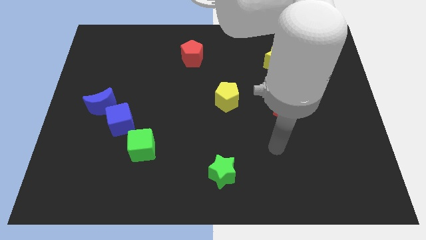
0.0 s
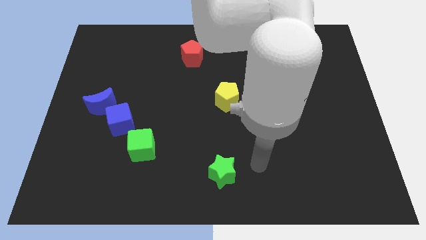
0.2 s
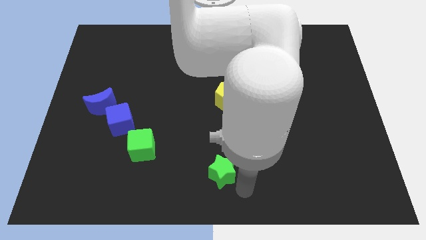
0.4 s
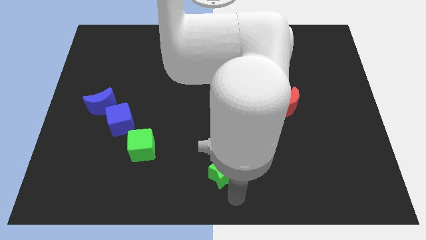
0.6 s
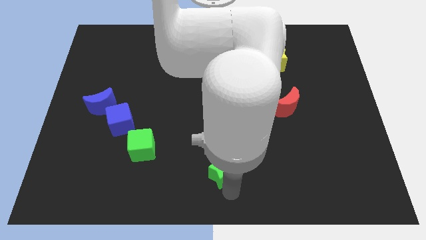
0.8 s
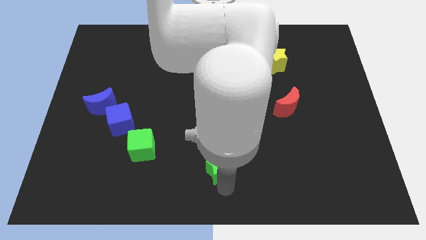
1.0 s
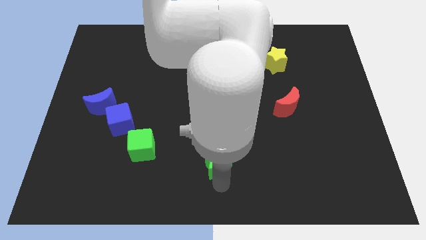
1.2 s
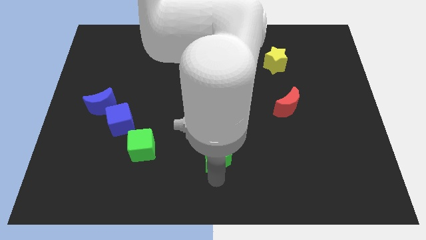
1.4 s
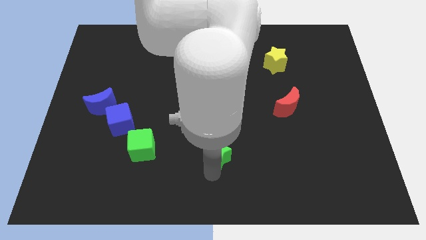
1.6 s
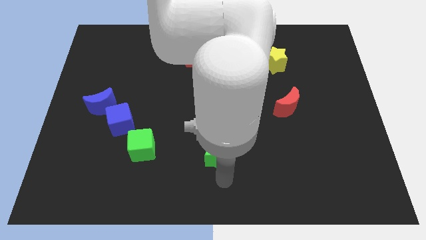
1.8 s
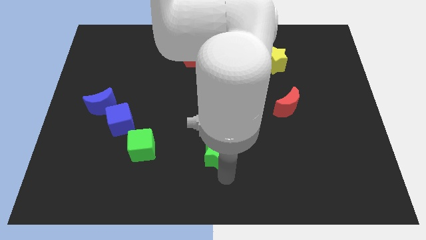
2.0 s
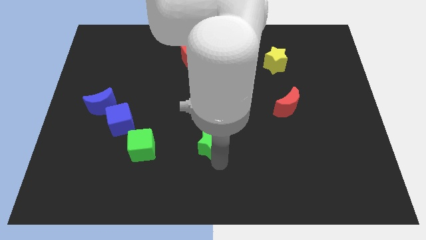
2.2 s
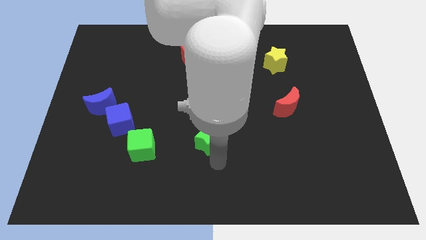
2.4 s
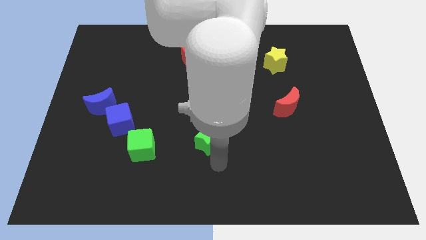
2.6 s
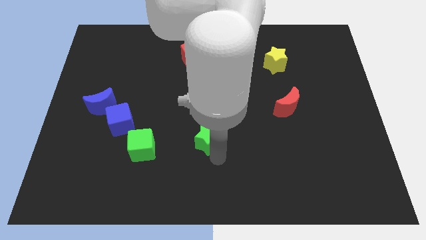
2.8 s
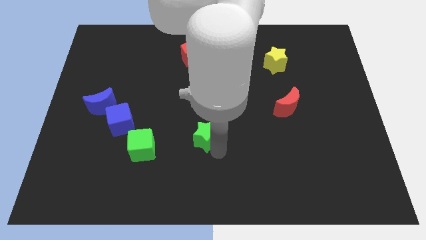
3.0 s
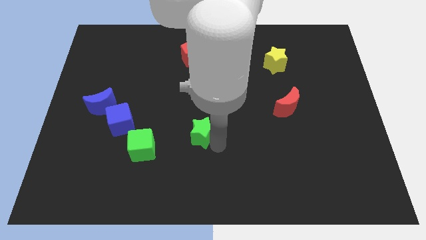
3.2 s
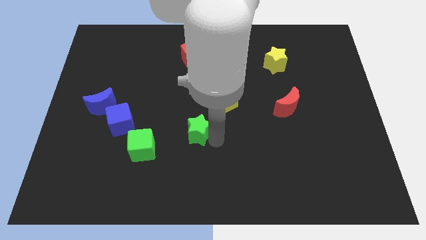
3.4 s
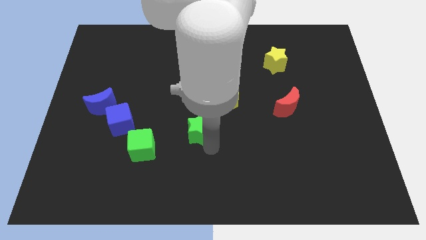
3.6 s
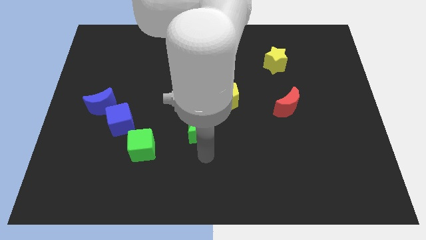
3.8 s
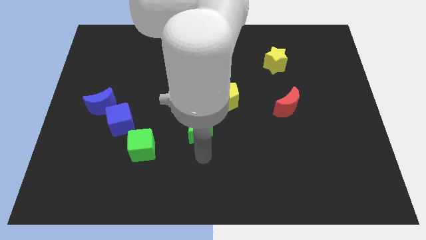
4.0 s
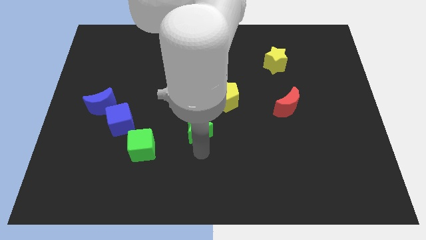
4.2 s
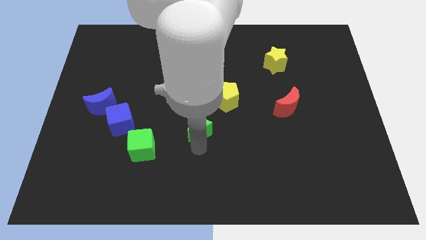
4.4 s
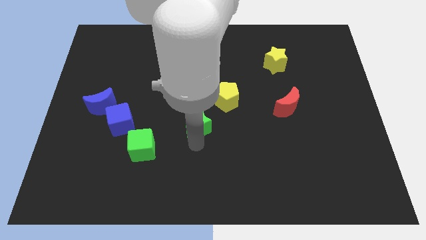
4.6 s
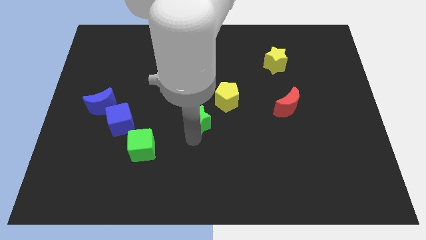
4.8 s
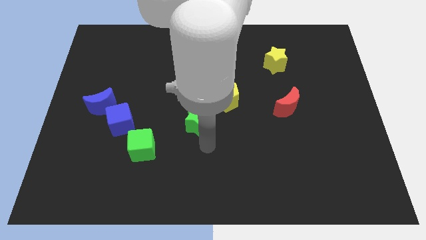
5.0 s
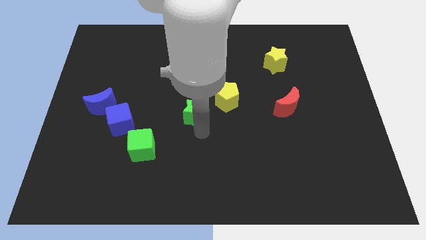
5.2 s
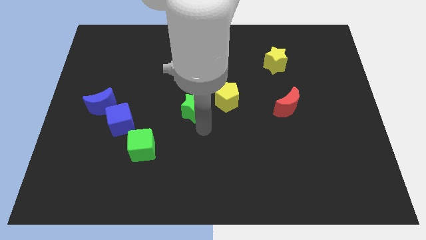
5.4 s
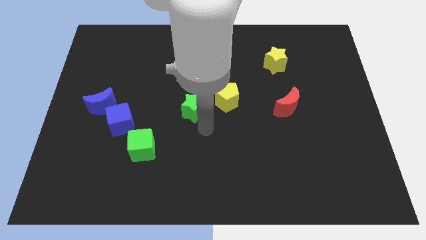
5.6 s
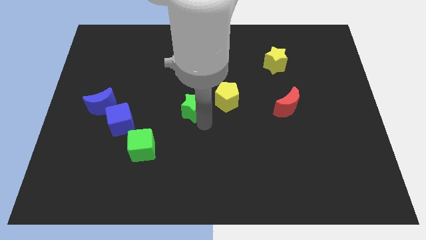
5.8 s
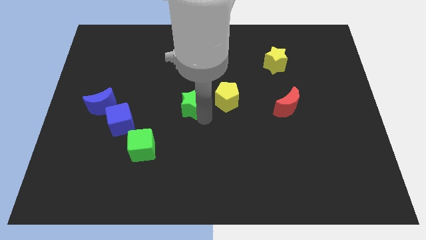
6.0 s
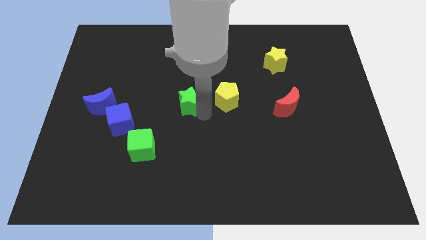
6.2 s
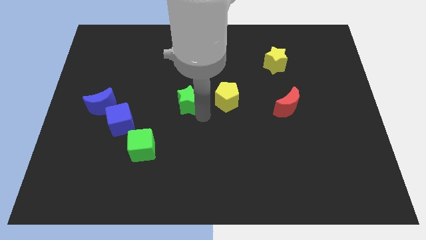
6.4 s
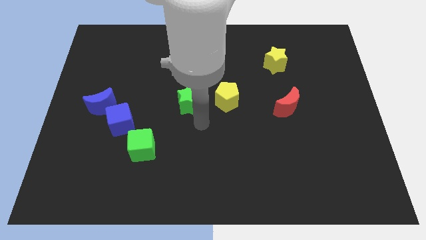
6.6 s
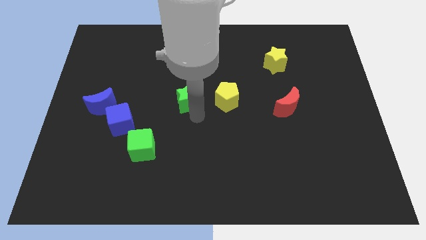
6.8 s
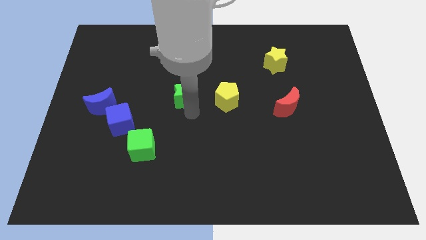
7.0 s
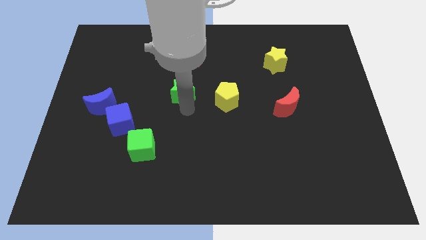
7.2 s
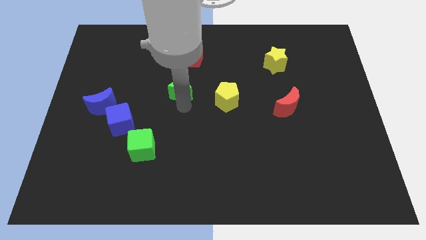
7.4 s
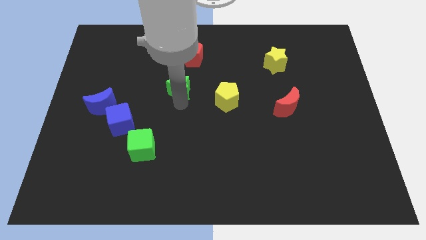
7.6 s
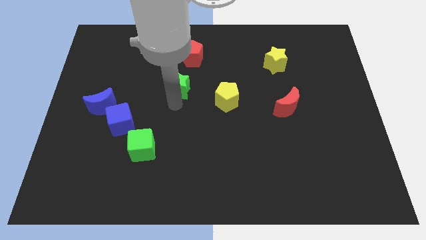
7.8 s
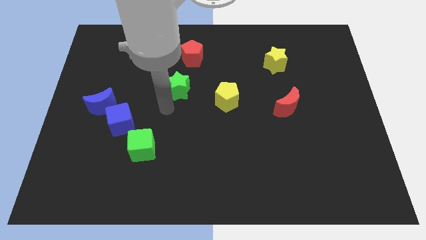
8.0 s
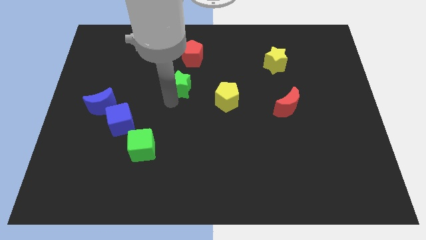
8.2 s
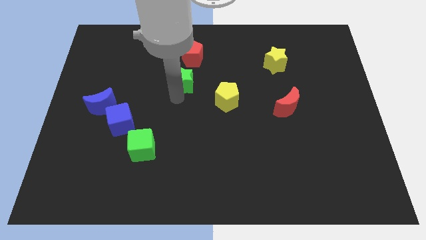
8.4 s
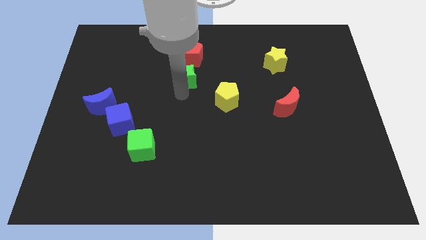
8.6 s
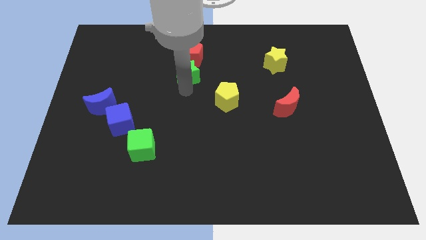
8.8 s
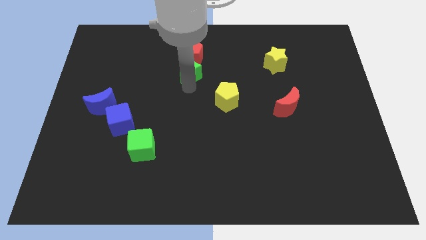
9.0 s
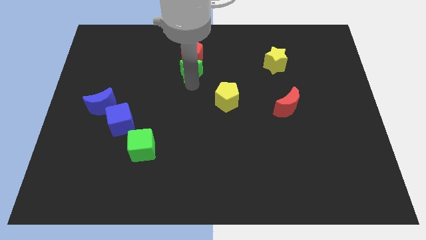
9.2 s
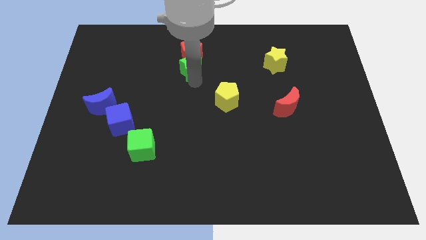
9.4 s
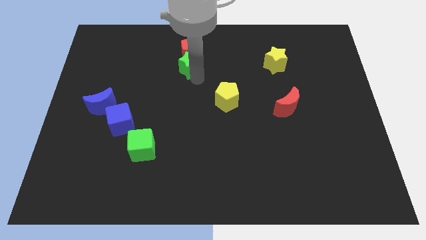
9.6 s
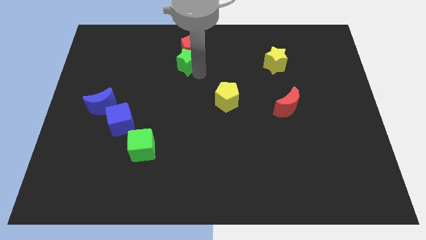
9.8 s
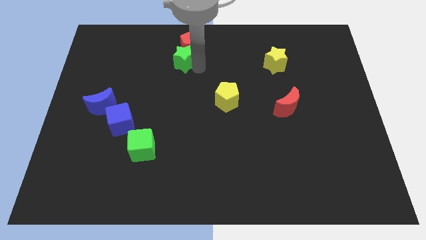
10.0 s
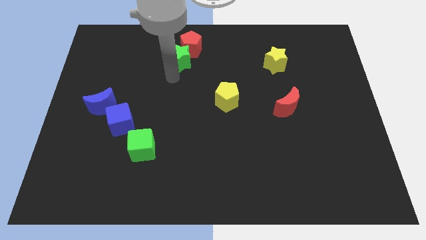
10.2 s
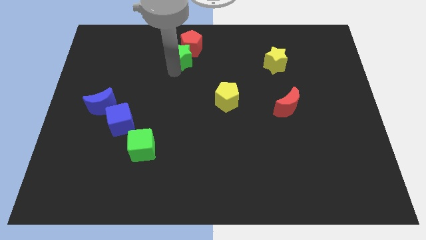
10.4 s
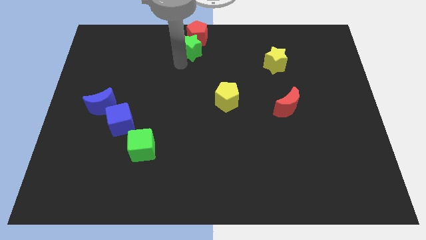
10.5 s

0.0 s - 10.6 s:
push the green star to the towards your base

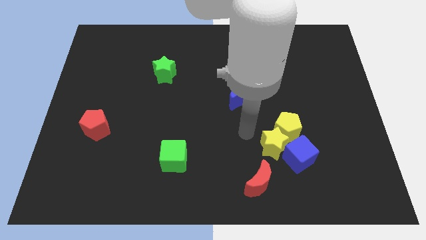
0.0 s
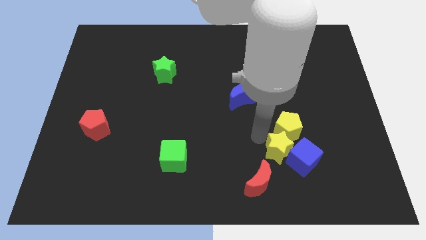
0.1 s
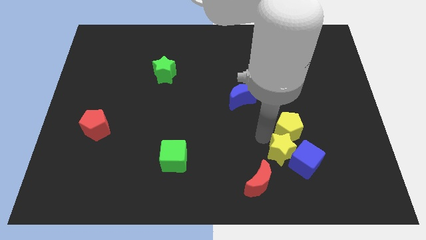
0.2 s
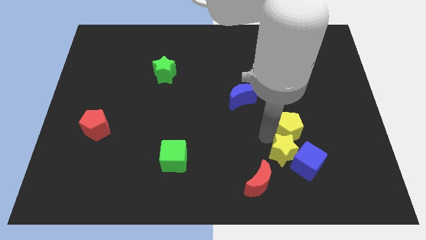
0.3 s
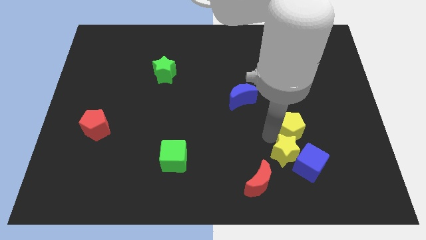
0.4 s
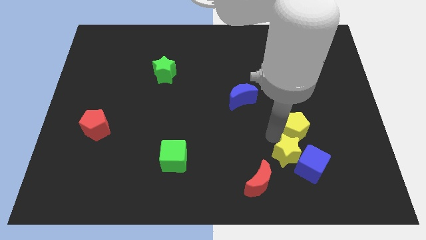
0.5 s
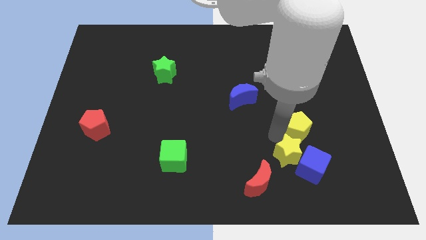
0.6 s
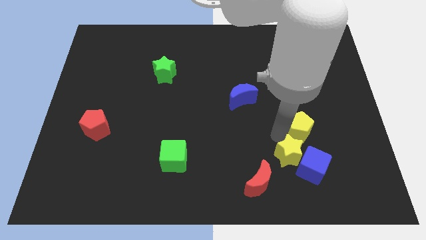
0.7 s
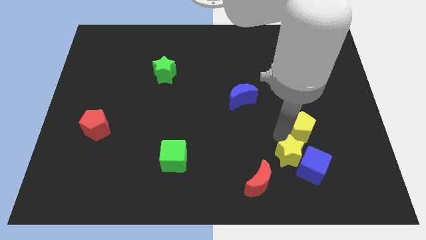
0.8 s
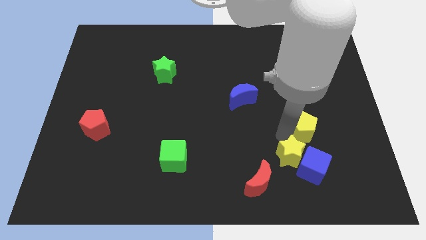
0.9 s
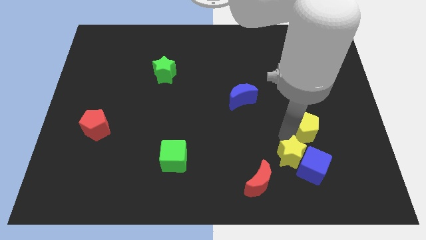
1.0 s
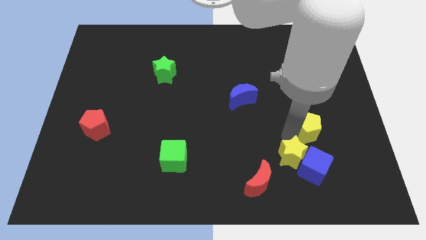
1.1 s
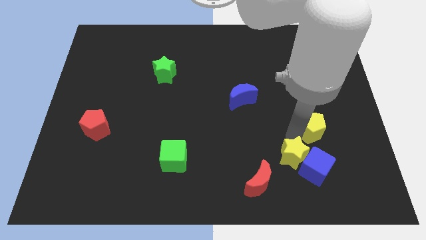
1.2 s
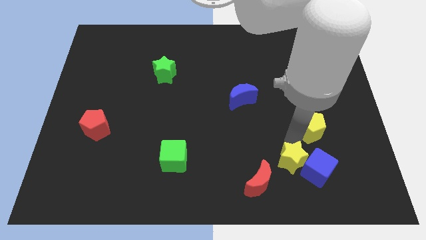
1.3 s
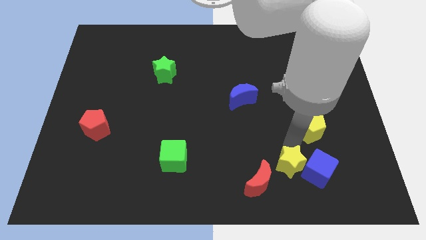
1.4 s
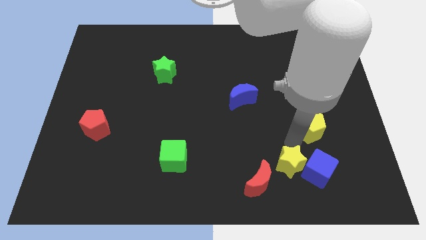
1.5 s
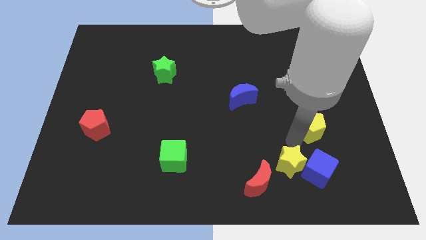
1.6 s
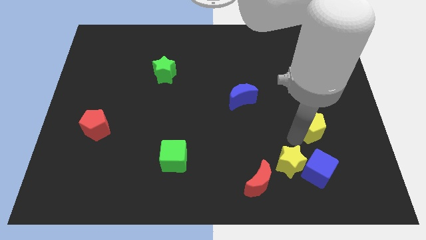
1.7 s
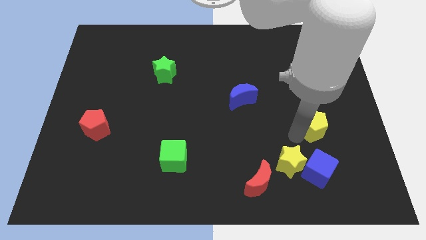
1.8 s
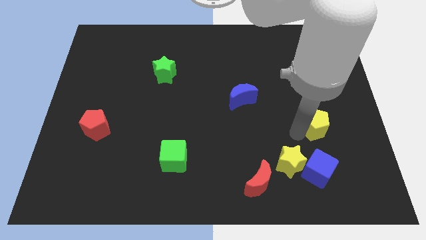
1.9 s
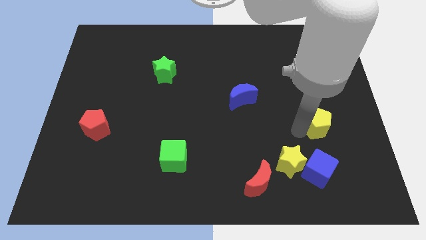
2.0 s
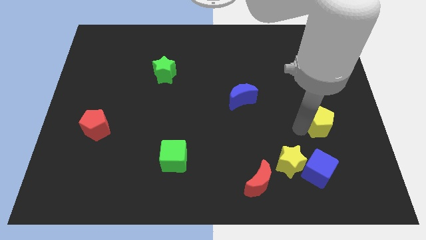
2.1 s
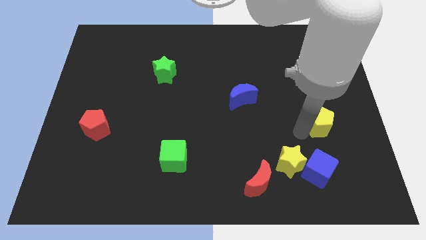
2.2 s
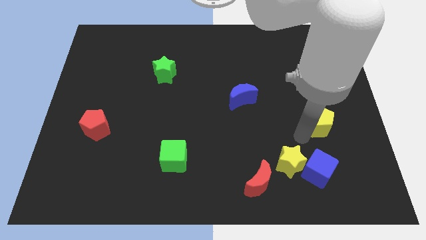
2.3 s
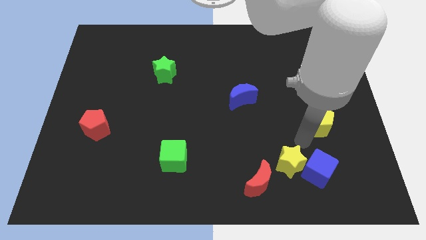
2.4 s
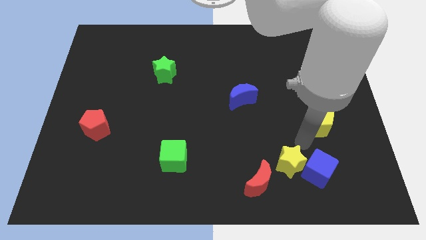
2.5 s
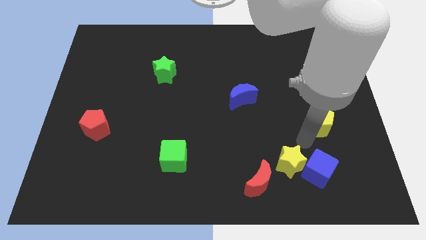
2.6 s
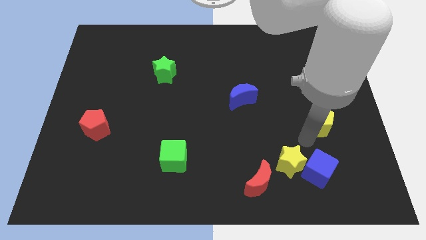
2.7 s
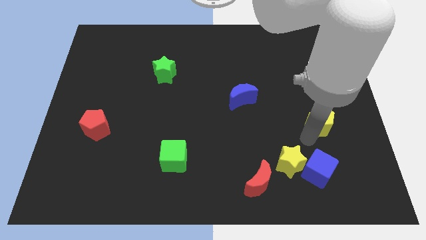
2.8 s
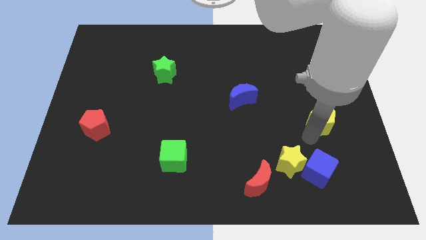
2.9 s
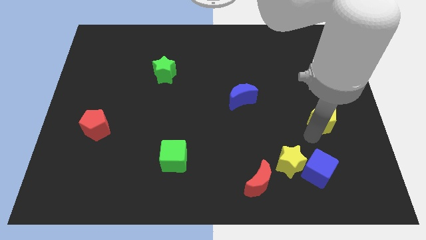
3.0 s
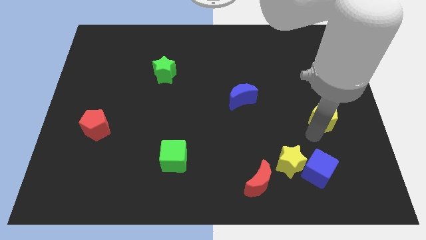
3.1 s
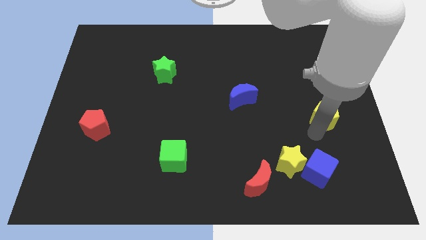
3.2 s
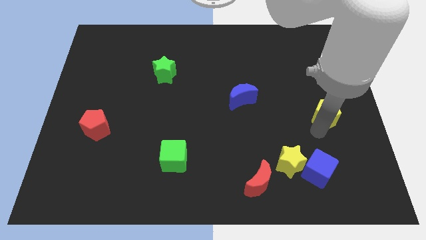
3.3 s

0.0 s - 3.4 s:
push the yellow pentagon to the right side of the board
